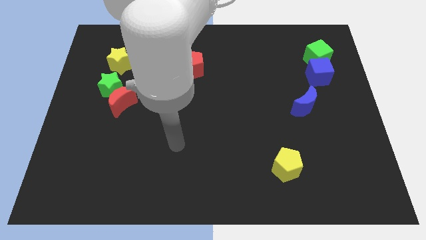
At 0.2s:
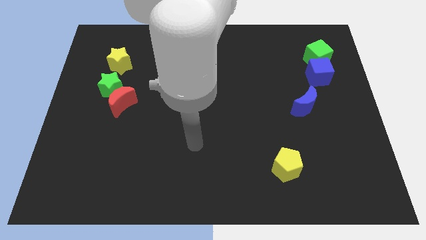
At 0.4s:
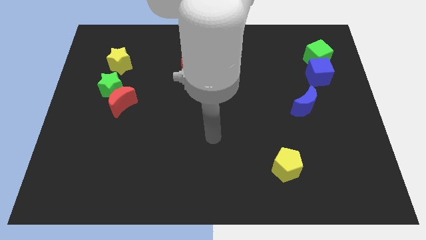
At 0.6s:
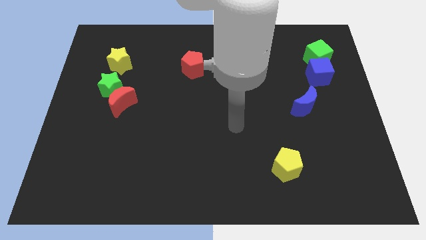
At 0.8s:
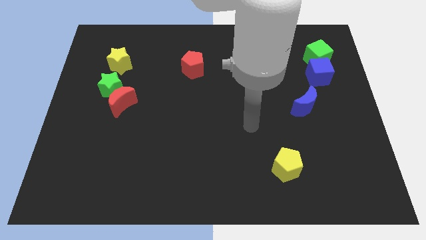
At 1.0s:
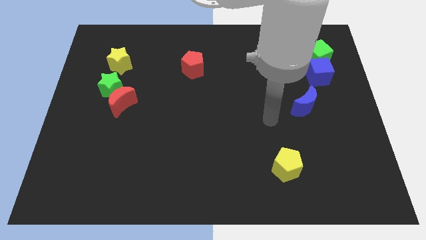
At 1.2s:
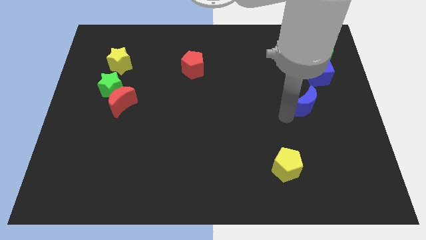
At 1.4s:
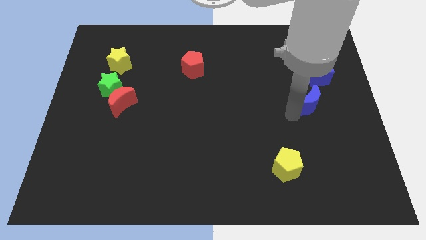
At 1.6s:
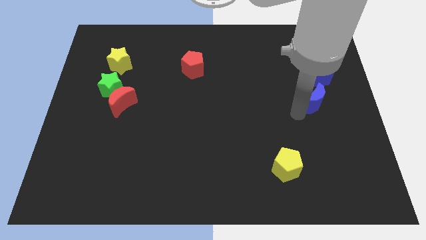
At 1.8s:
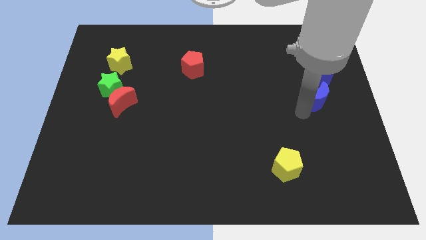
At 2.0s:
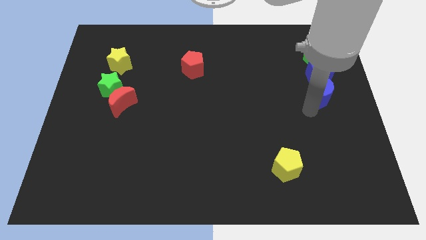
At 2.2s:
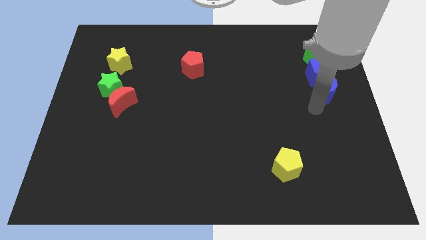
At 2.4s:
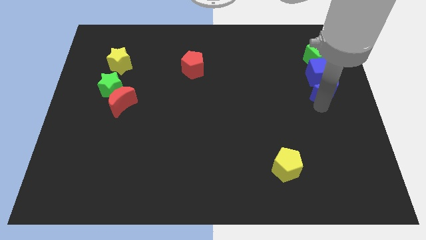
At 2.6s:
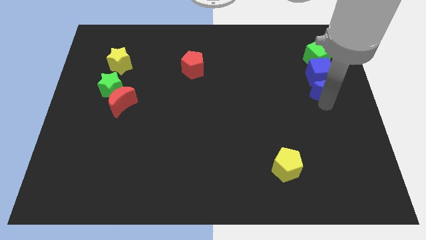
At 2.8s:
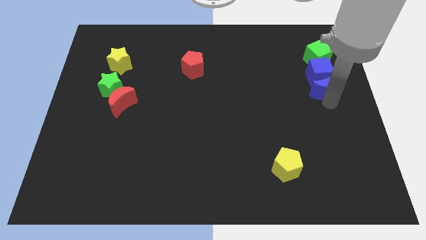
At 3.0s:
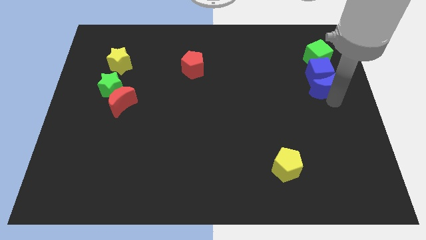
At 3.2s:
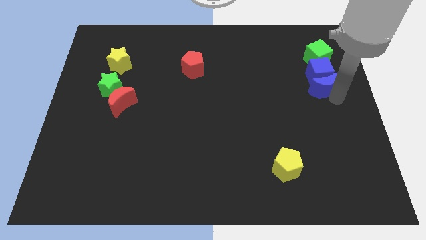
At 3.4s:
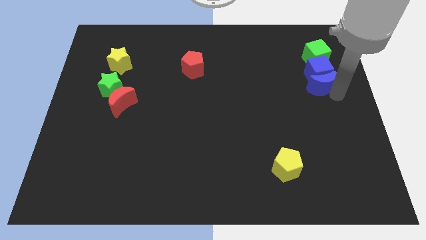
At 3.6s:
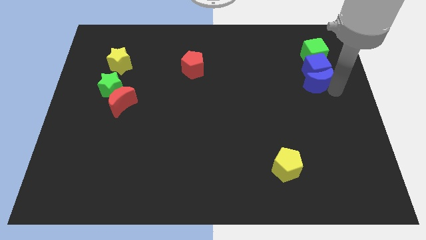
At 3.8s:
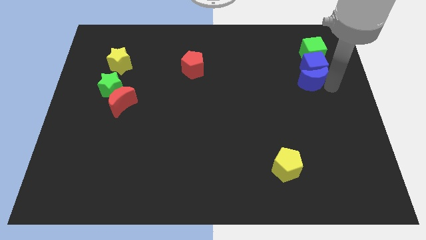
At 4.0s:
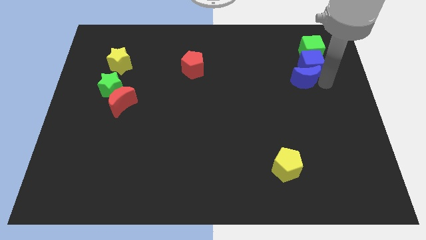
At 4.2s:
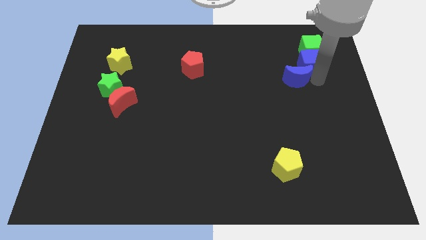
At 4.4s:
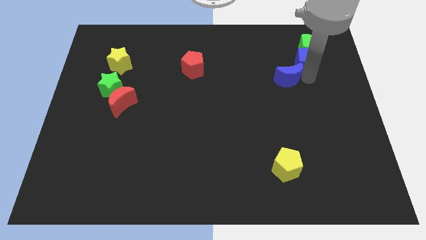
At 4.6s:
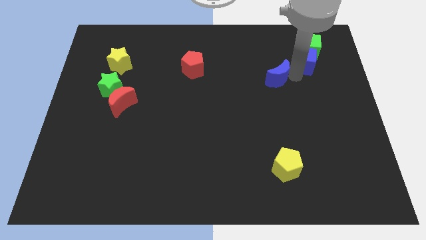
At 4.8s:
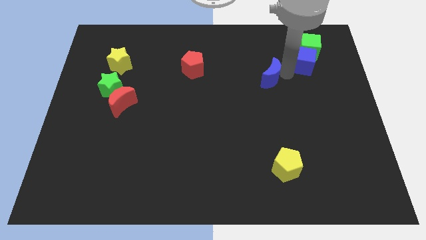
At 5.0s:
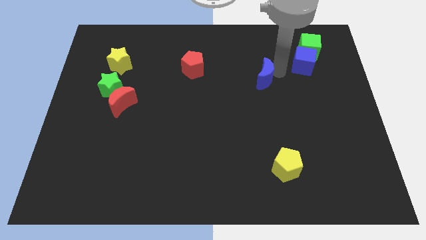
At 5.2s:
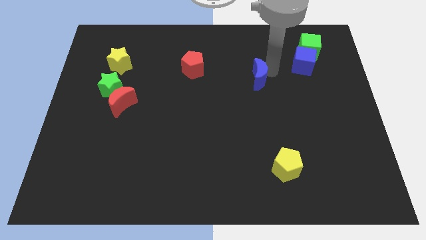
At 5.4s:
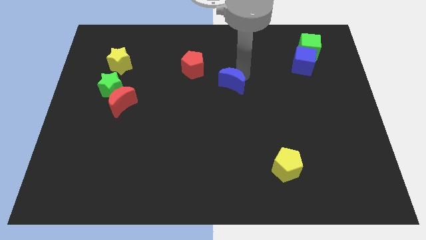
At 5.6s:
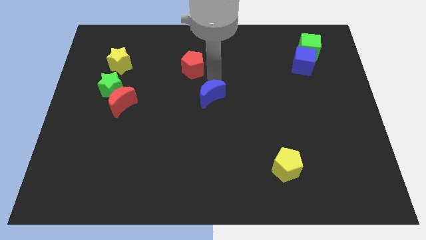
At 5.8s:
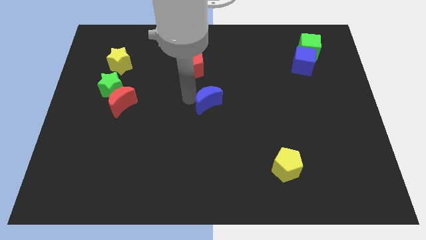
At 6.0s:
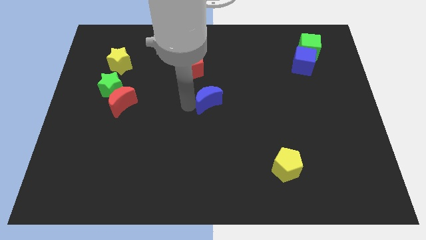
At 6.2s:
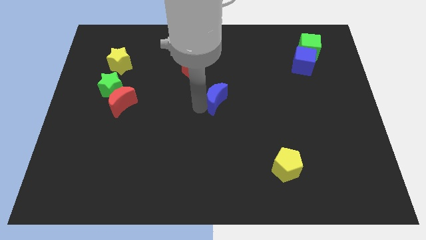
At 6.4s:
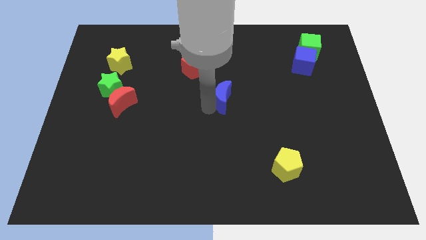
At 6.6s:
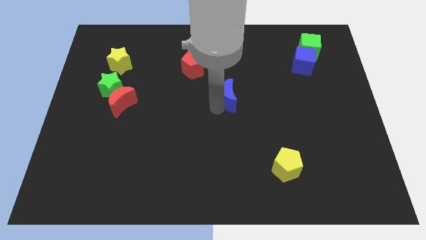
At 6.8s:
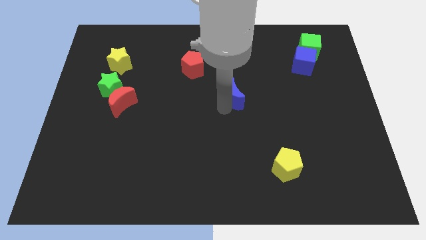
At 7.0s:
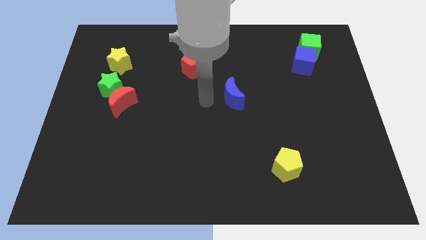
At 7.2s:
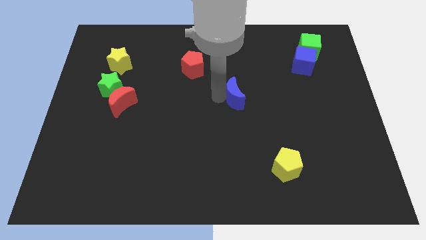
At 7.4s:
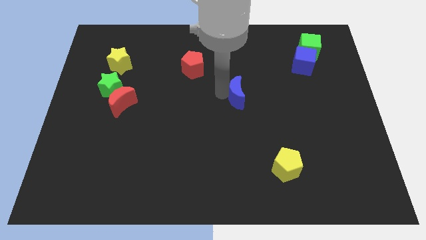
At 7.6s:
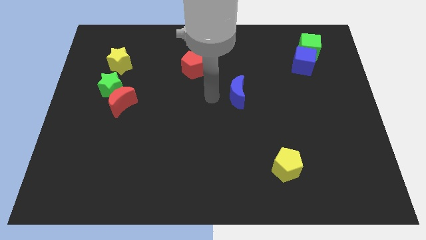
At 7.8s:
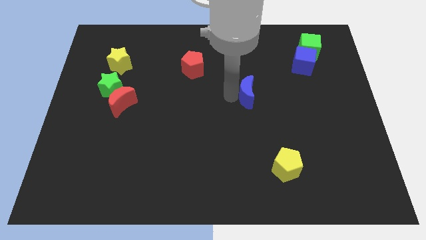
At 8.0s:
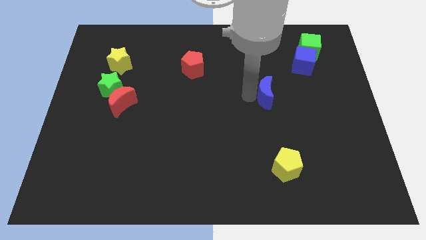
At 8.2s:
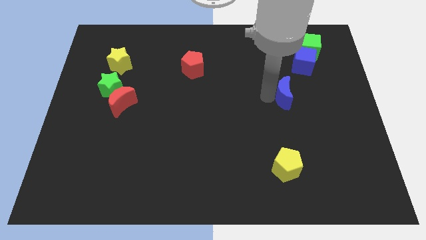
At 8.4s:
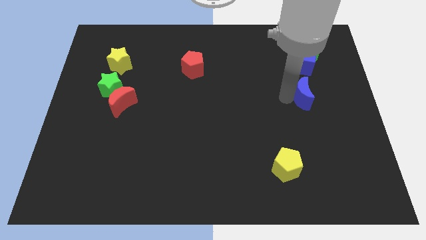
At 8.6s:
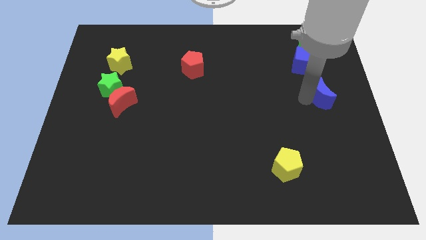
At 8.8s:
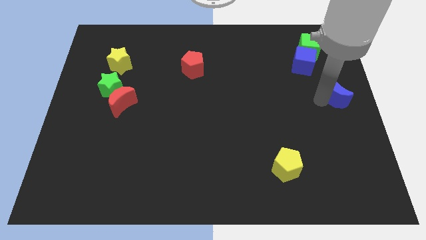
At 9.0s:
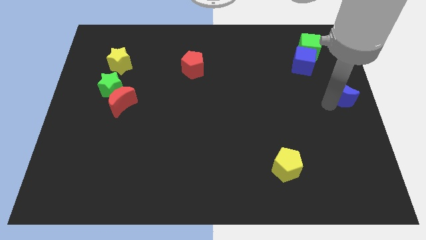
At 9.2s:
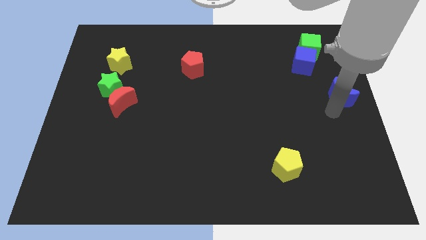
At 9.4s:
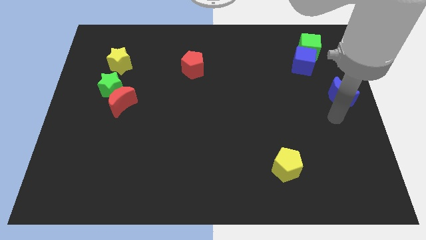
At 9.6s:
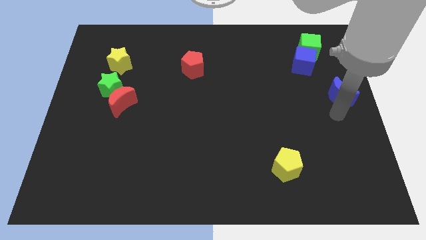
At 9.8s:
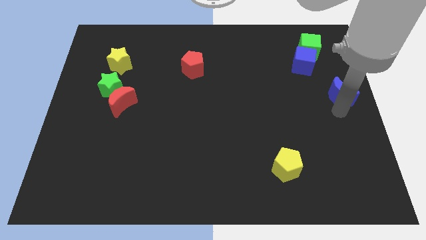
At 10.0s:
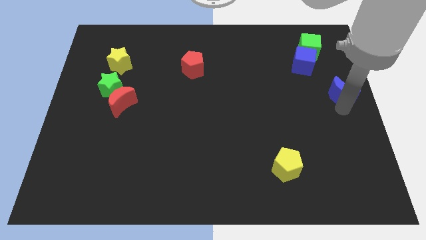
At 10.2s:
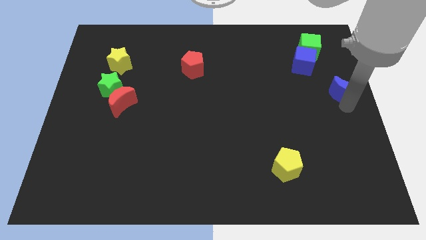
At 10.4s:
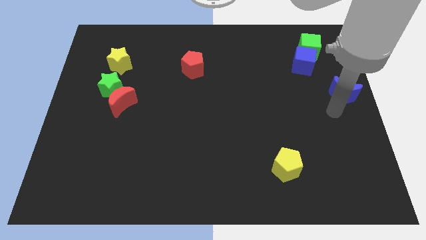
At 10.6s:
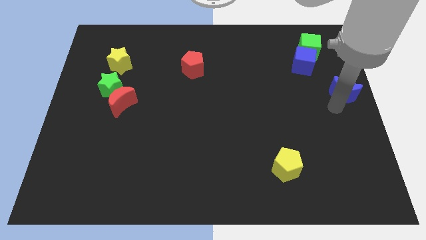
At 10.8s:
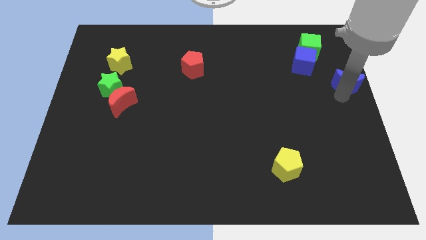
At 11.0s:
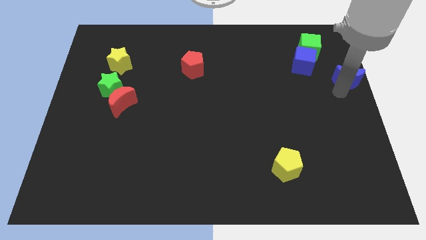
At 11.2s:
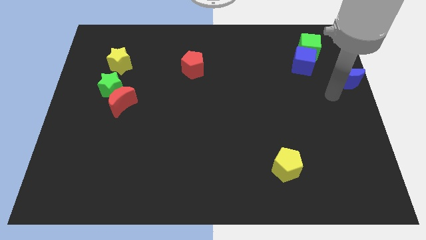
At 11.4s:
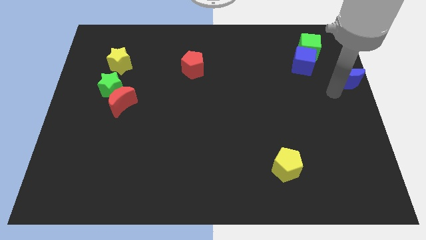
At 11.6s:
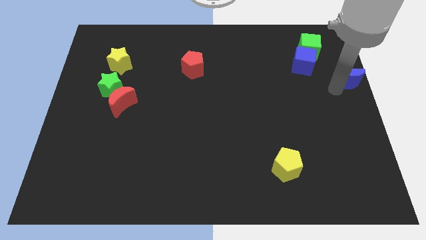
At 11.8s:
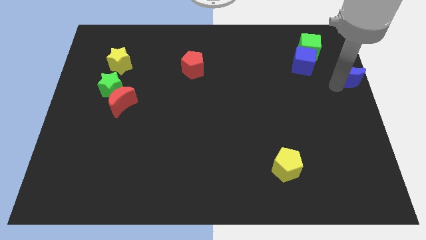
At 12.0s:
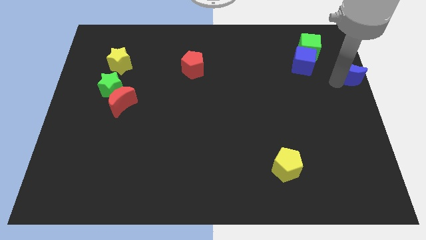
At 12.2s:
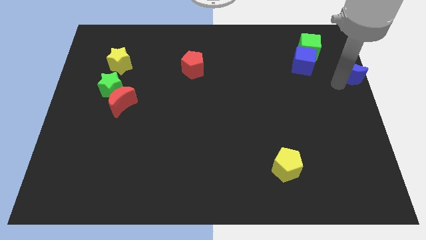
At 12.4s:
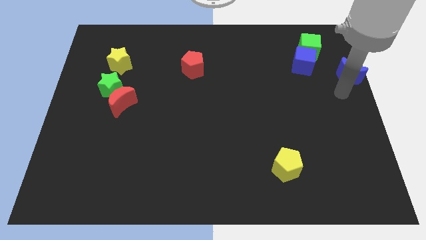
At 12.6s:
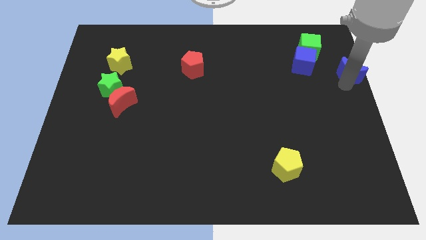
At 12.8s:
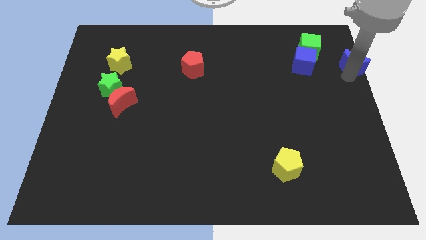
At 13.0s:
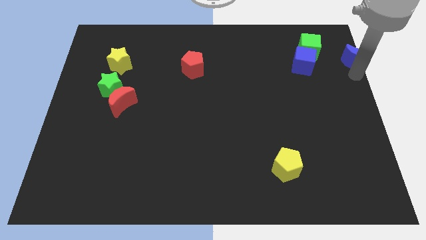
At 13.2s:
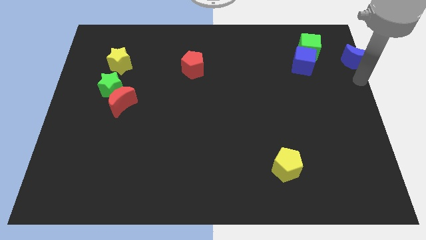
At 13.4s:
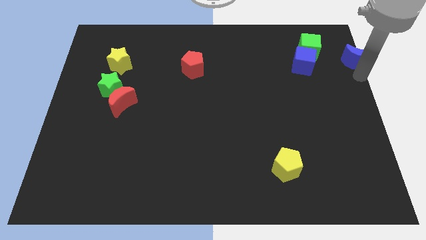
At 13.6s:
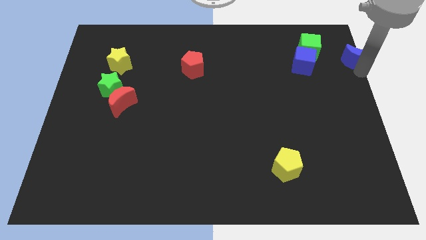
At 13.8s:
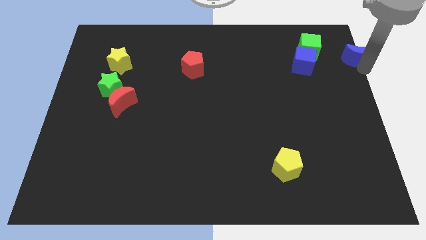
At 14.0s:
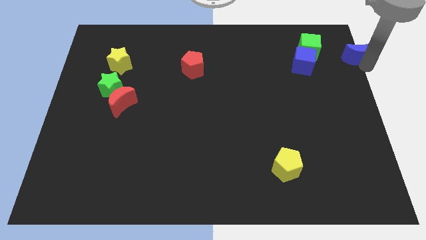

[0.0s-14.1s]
move the blue moon to the upper right corner
